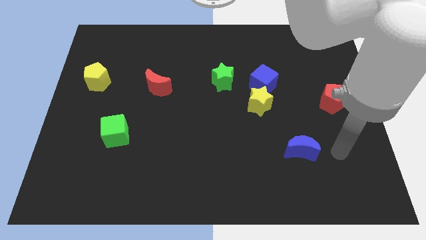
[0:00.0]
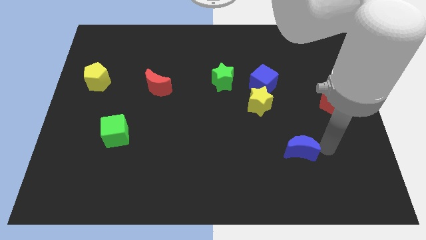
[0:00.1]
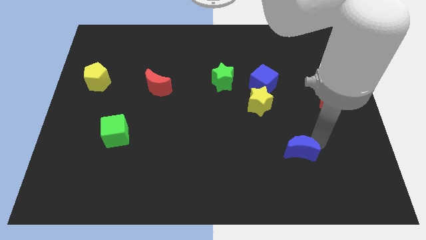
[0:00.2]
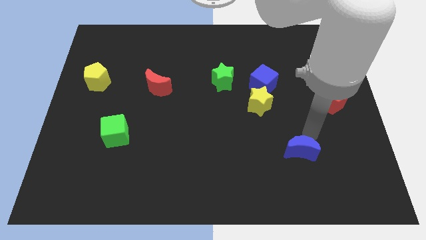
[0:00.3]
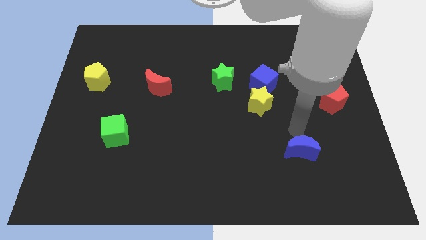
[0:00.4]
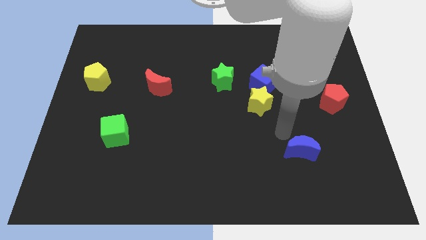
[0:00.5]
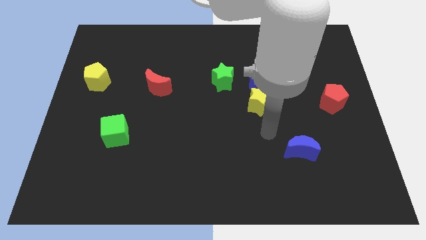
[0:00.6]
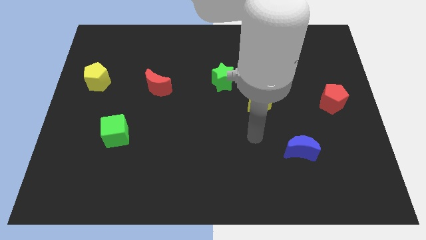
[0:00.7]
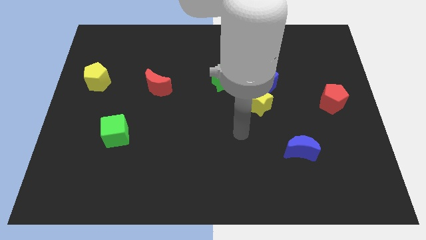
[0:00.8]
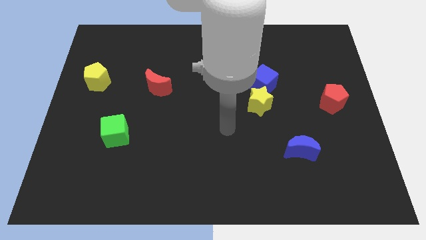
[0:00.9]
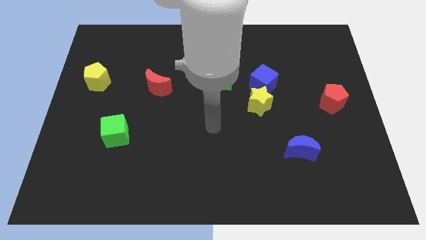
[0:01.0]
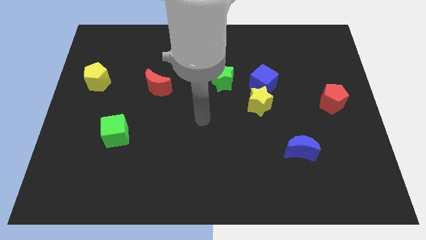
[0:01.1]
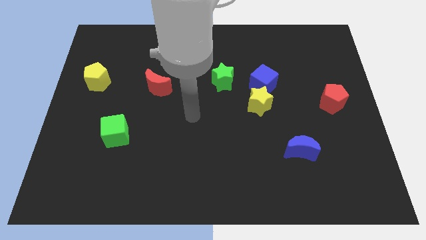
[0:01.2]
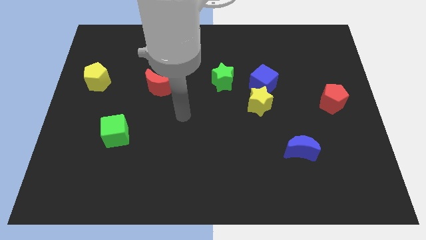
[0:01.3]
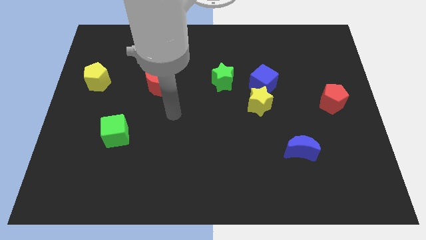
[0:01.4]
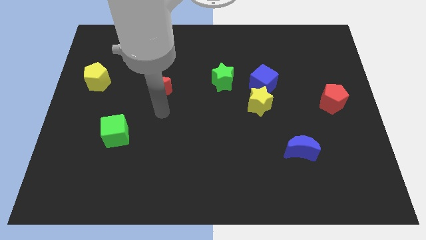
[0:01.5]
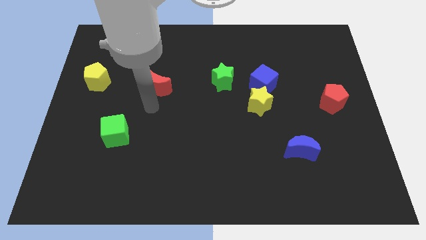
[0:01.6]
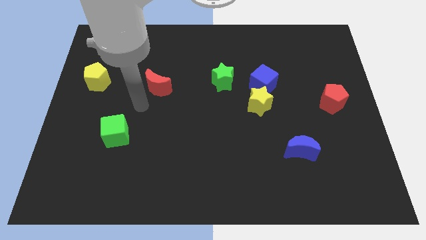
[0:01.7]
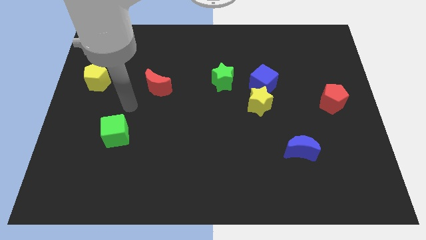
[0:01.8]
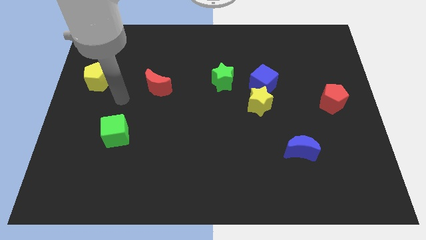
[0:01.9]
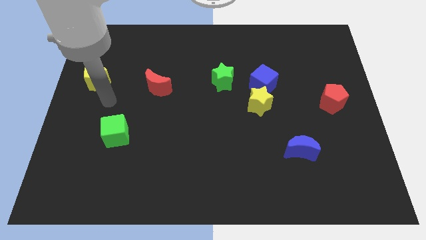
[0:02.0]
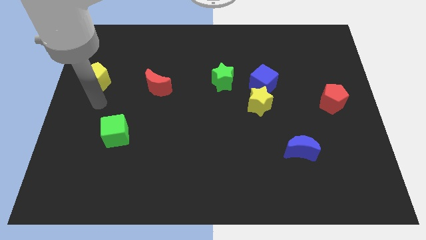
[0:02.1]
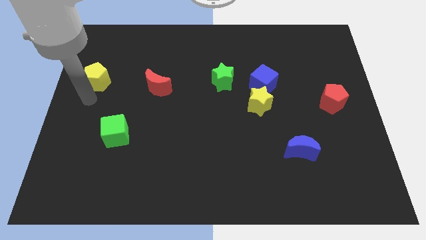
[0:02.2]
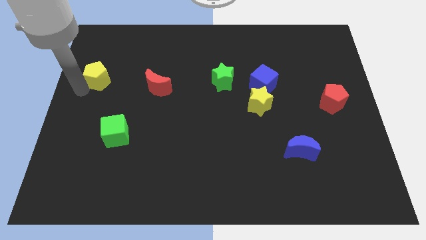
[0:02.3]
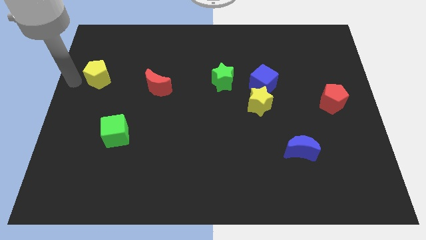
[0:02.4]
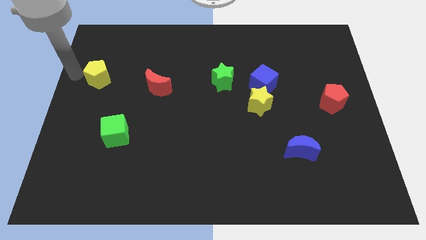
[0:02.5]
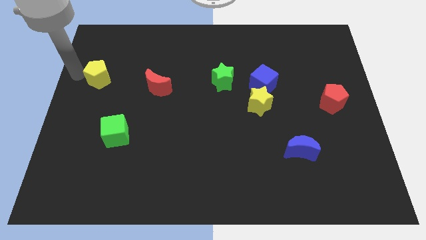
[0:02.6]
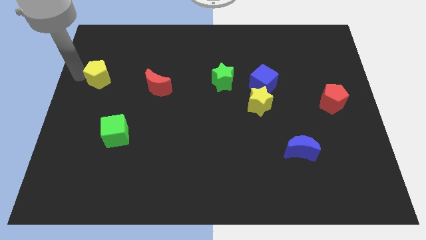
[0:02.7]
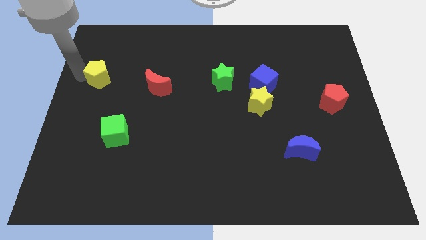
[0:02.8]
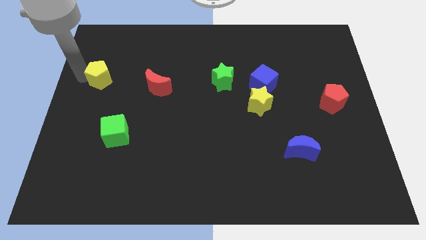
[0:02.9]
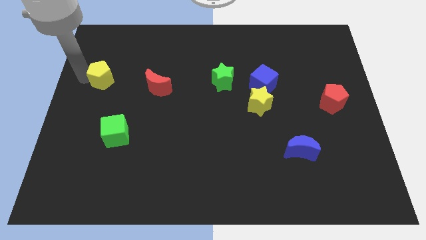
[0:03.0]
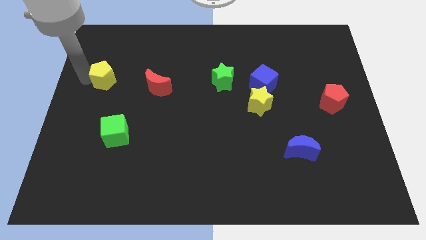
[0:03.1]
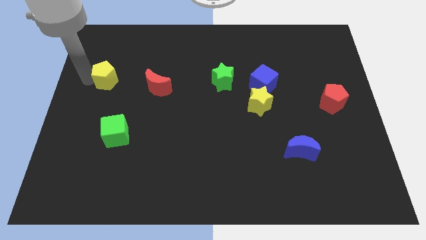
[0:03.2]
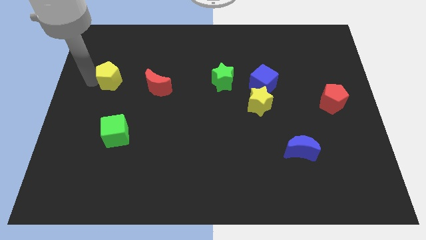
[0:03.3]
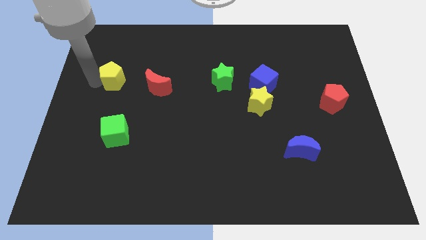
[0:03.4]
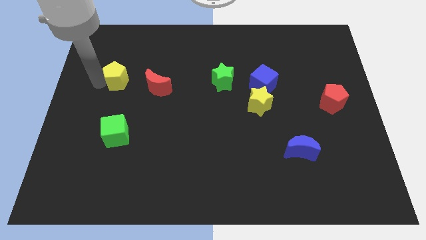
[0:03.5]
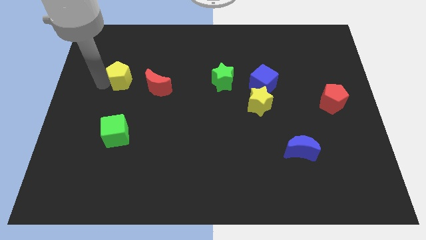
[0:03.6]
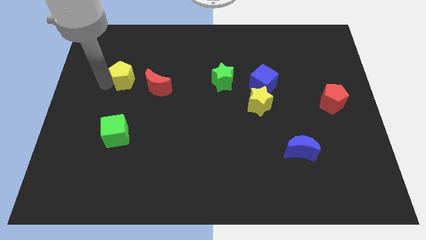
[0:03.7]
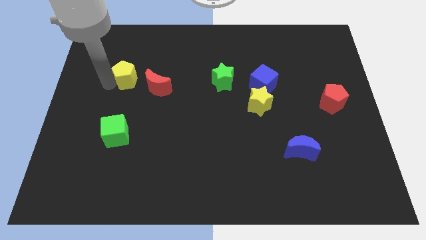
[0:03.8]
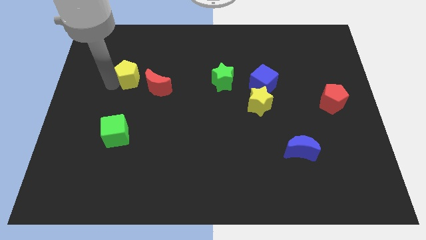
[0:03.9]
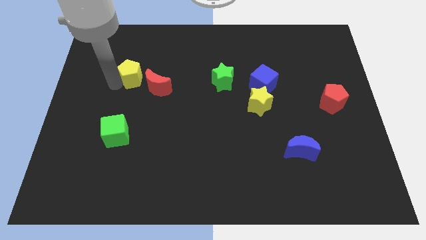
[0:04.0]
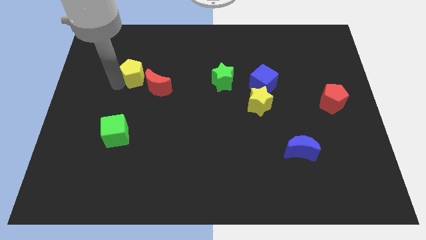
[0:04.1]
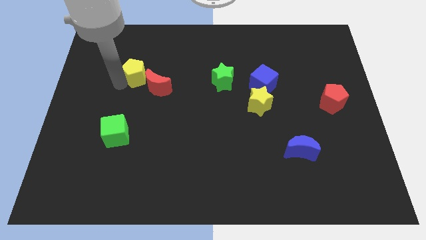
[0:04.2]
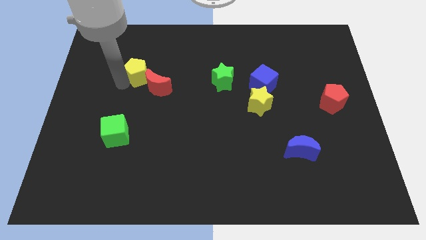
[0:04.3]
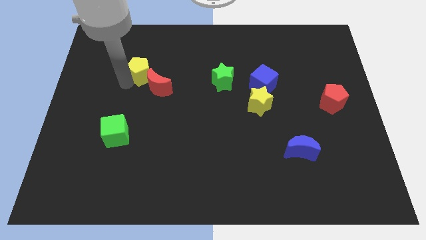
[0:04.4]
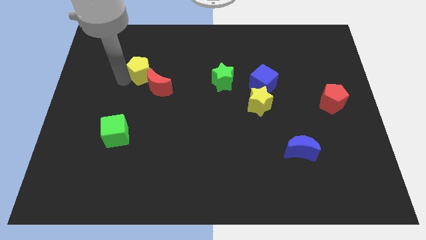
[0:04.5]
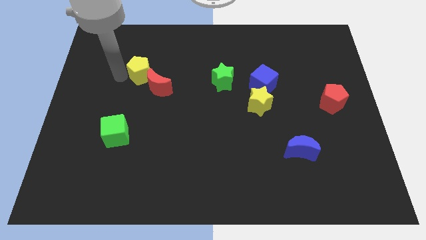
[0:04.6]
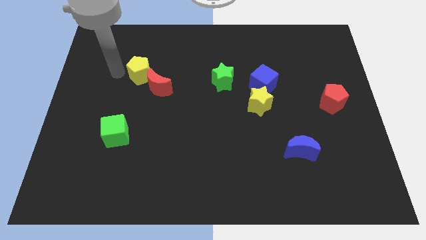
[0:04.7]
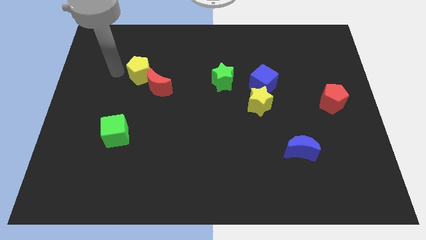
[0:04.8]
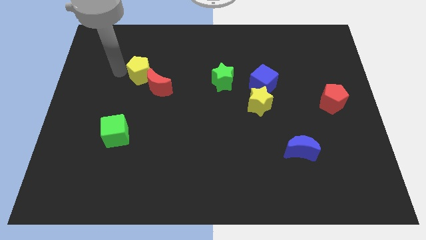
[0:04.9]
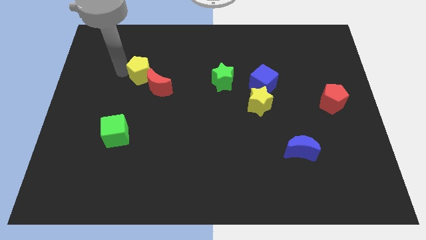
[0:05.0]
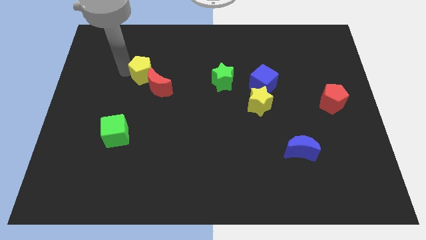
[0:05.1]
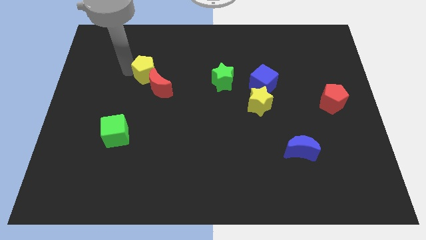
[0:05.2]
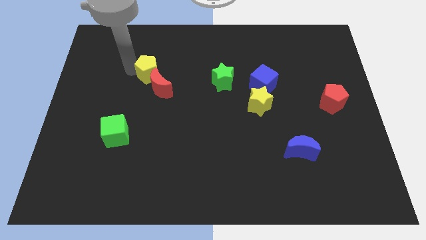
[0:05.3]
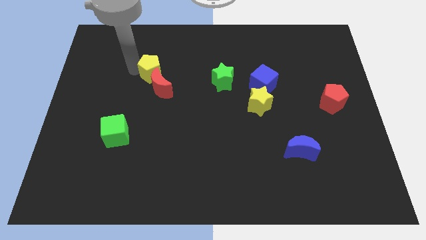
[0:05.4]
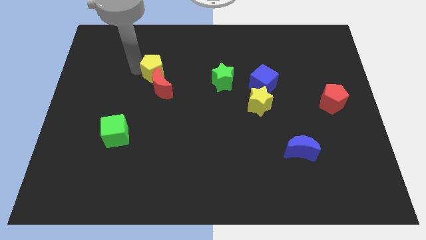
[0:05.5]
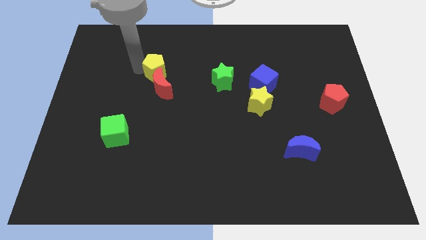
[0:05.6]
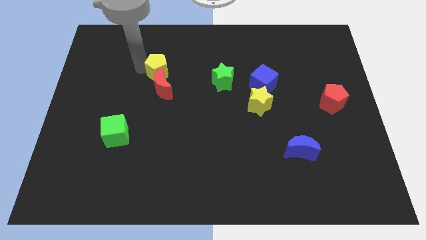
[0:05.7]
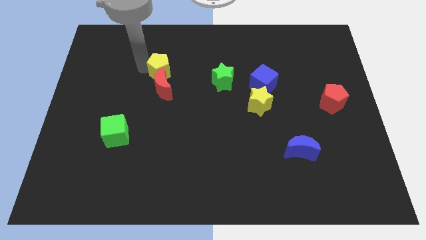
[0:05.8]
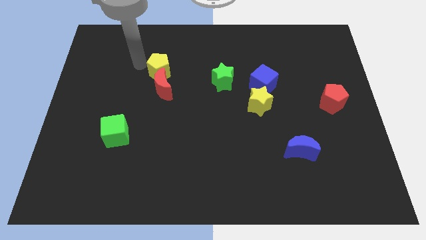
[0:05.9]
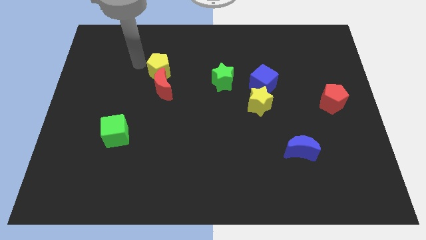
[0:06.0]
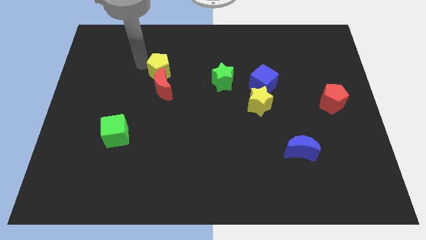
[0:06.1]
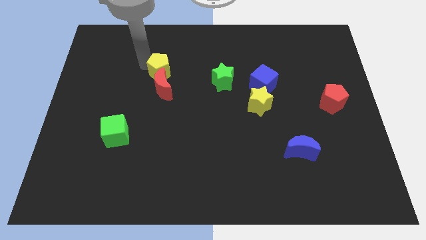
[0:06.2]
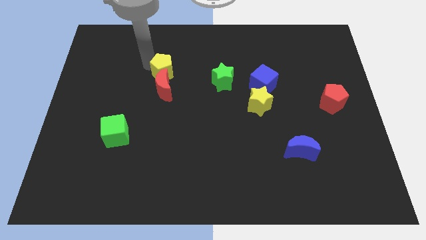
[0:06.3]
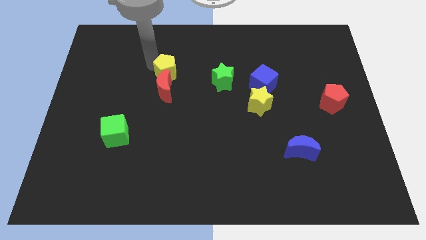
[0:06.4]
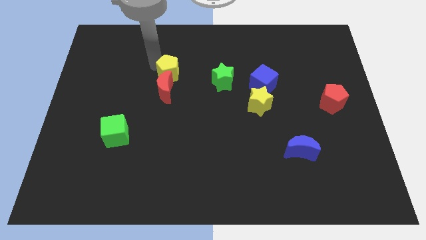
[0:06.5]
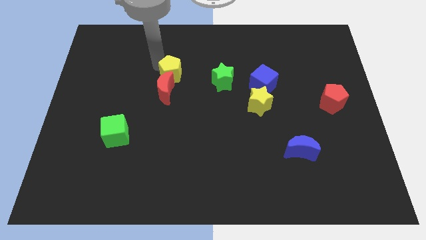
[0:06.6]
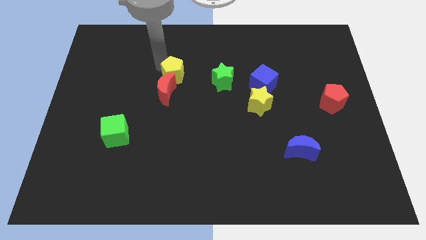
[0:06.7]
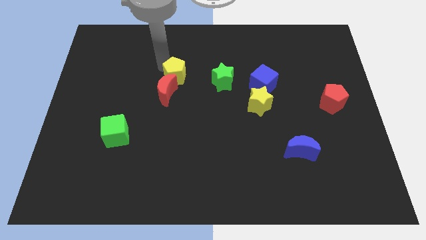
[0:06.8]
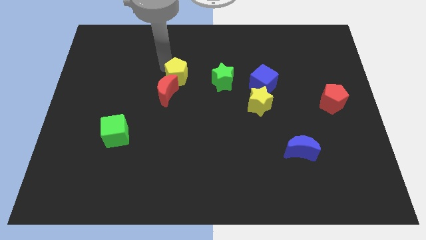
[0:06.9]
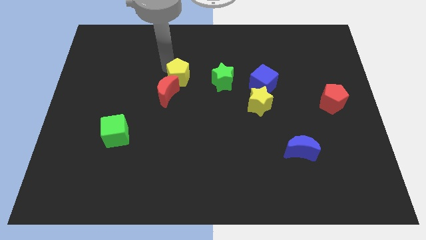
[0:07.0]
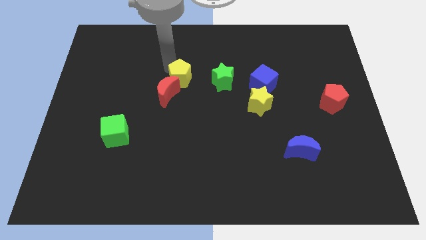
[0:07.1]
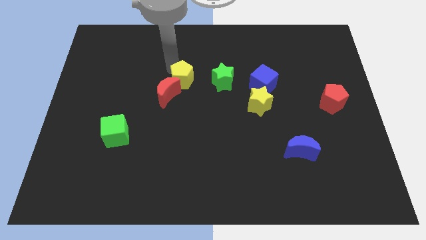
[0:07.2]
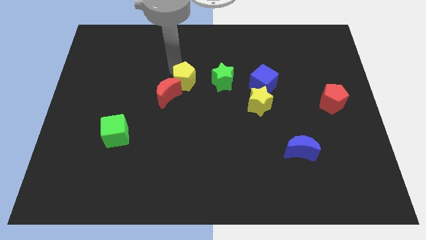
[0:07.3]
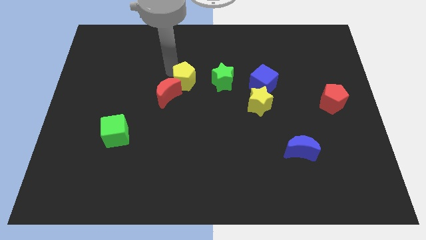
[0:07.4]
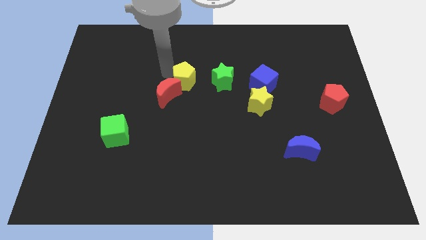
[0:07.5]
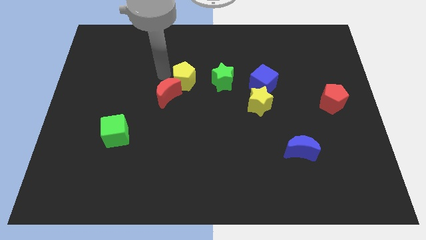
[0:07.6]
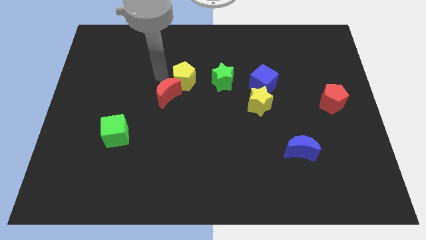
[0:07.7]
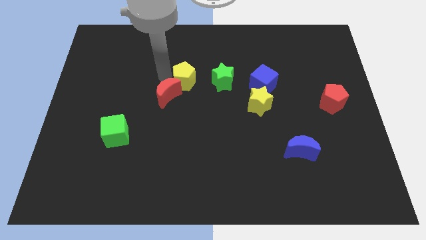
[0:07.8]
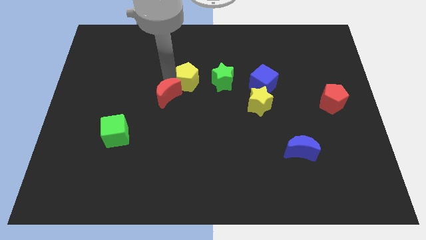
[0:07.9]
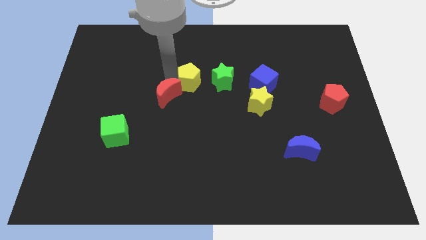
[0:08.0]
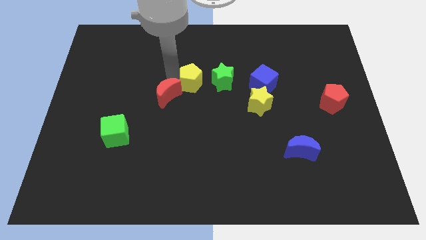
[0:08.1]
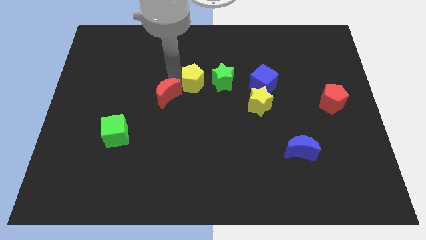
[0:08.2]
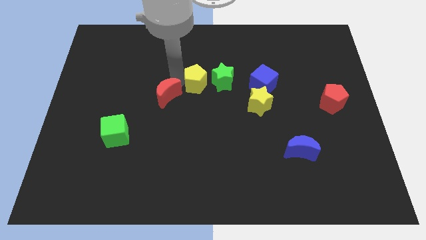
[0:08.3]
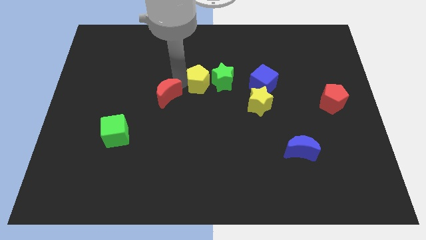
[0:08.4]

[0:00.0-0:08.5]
push the yellow pentagon to the left side of the blue cube
